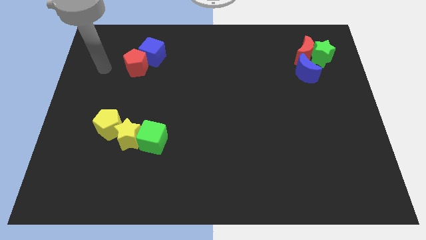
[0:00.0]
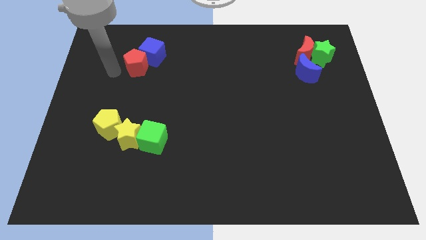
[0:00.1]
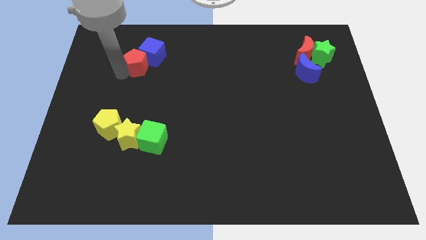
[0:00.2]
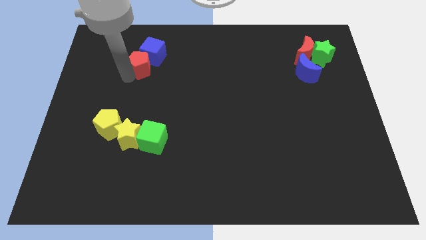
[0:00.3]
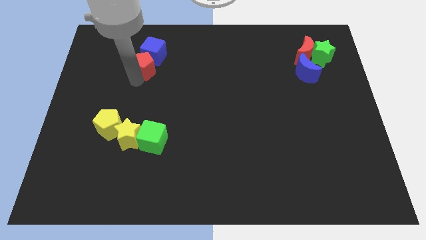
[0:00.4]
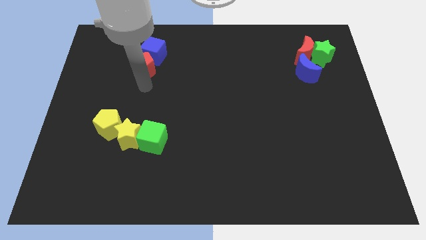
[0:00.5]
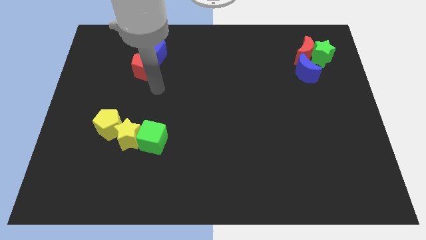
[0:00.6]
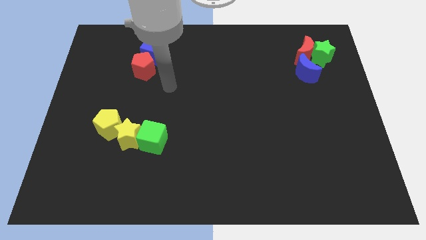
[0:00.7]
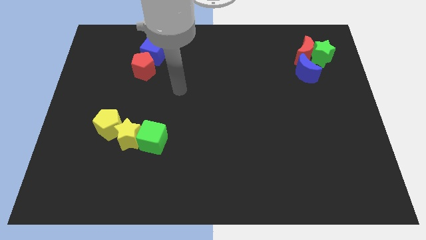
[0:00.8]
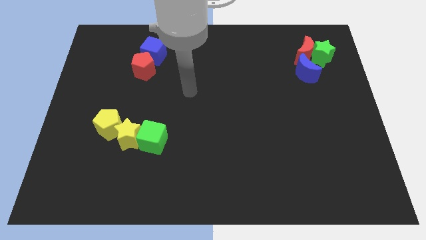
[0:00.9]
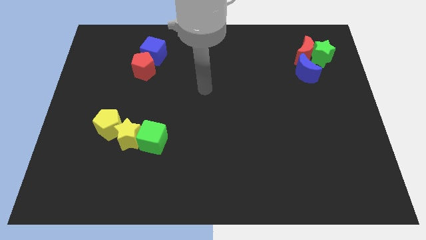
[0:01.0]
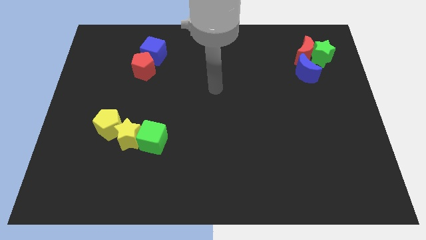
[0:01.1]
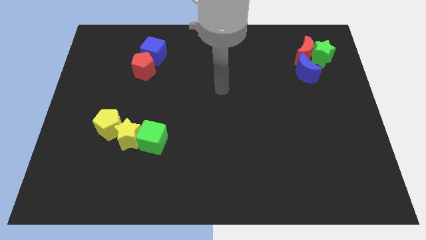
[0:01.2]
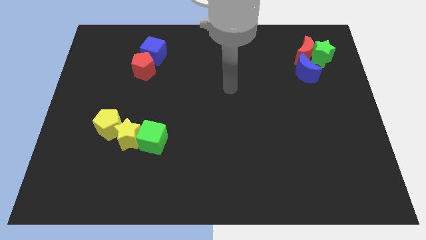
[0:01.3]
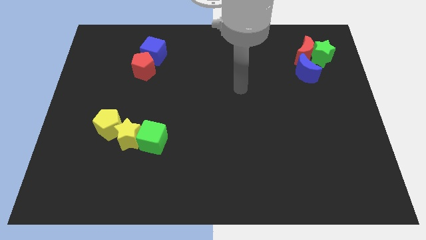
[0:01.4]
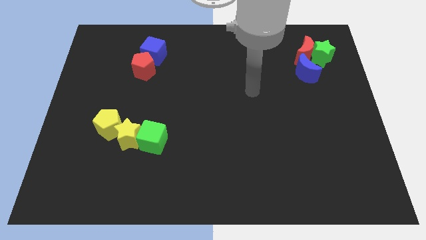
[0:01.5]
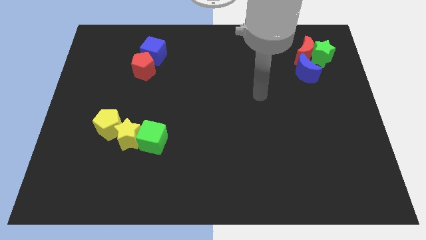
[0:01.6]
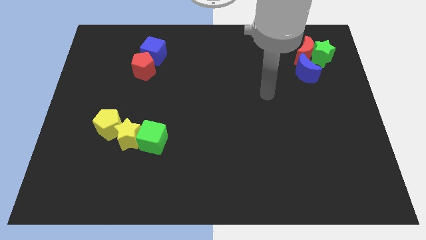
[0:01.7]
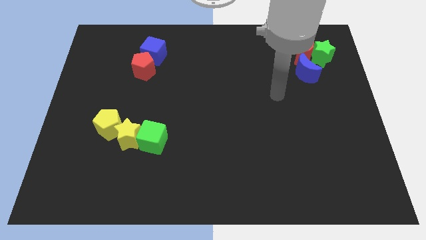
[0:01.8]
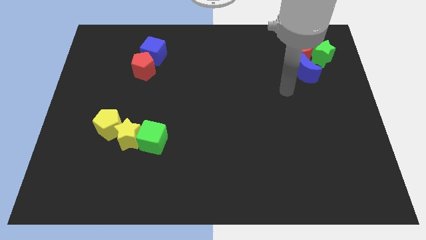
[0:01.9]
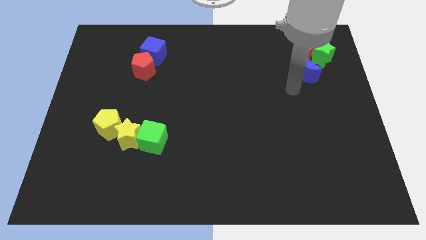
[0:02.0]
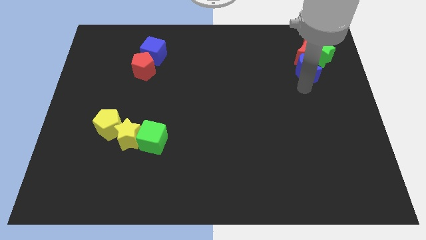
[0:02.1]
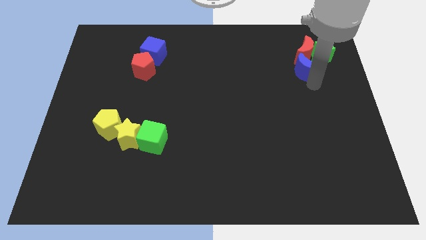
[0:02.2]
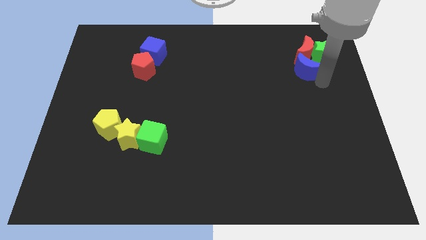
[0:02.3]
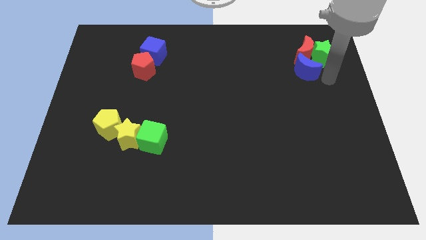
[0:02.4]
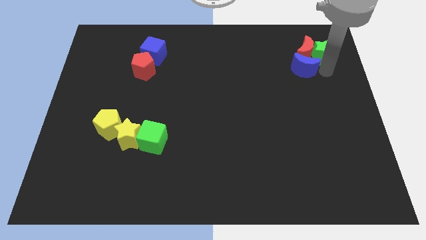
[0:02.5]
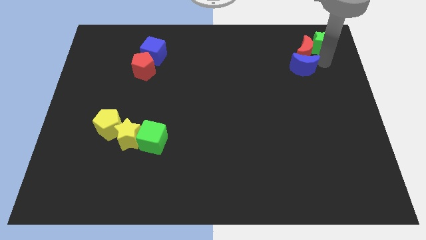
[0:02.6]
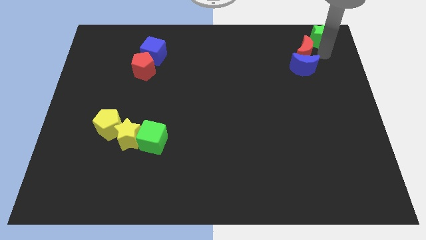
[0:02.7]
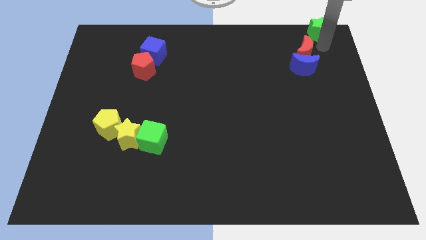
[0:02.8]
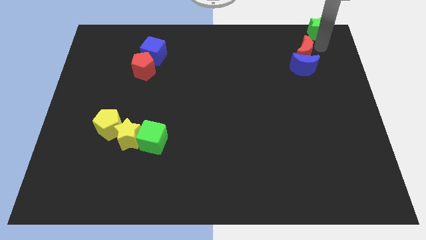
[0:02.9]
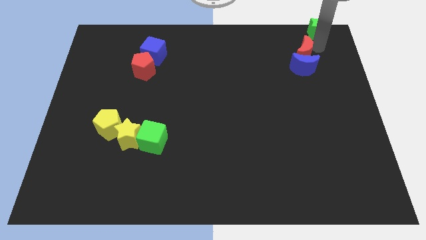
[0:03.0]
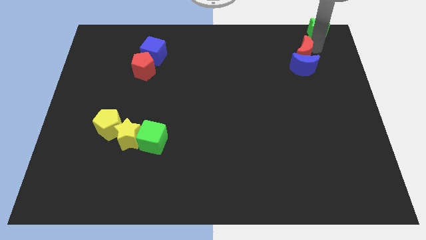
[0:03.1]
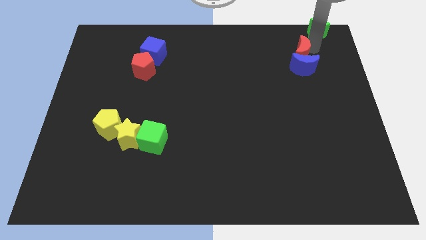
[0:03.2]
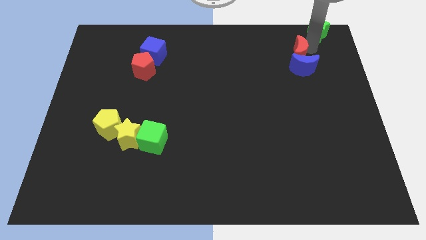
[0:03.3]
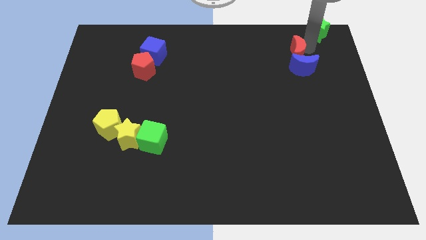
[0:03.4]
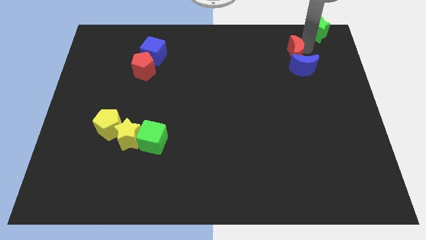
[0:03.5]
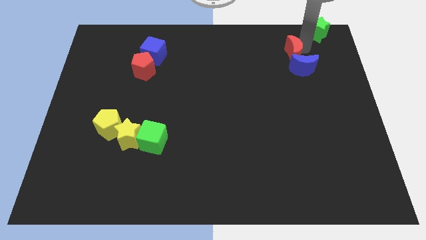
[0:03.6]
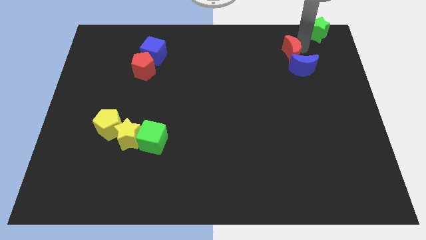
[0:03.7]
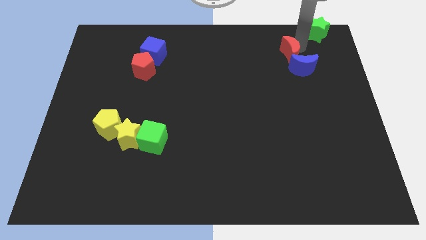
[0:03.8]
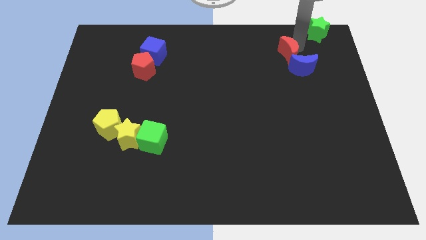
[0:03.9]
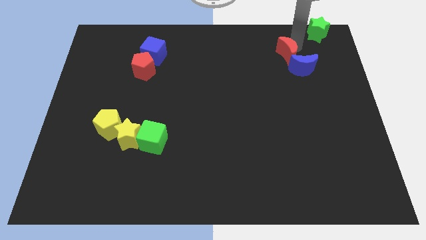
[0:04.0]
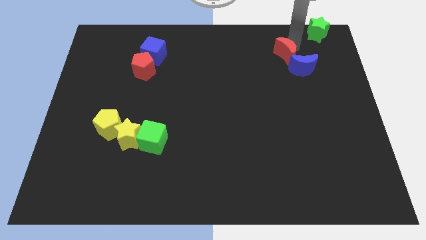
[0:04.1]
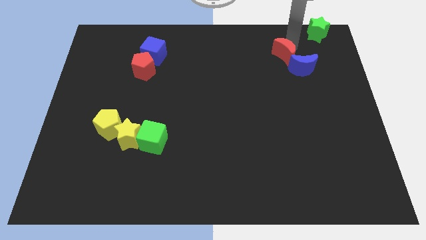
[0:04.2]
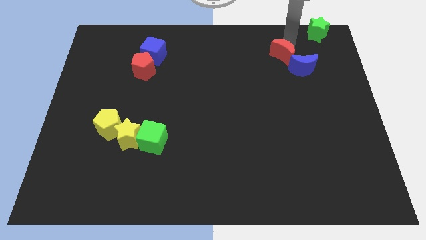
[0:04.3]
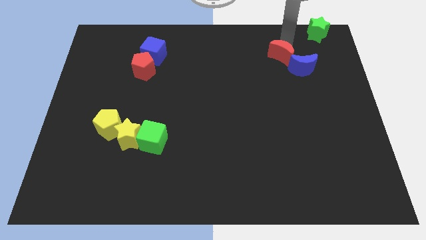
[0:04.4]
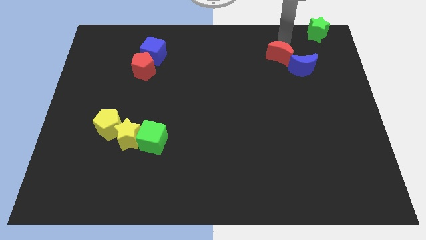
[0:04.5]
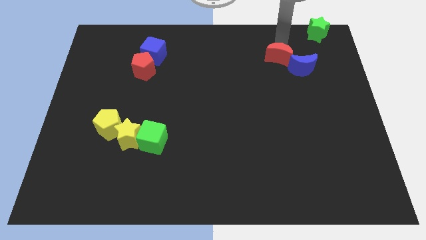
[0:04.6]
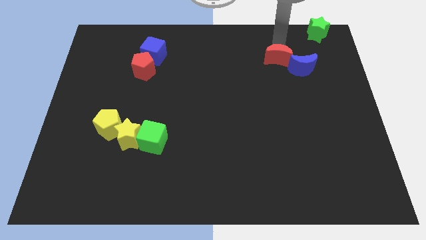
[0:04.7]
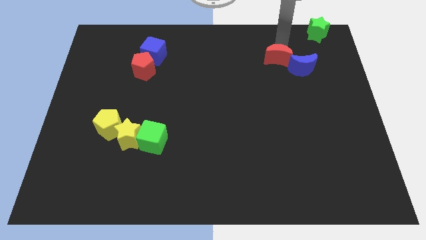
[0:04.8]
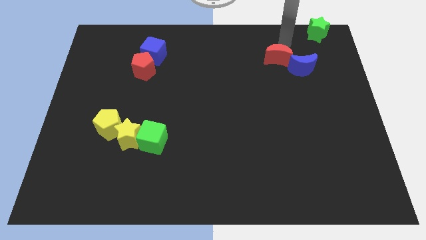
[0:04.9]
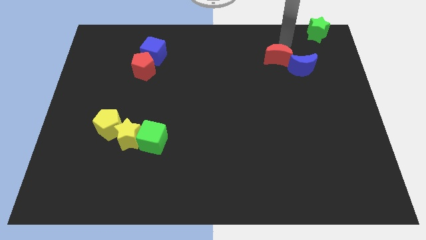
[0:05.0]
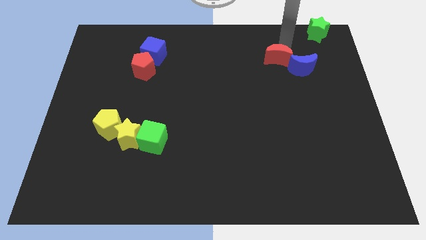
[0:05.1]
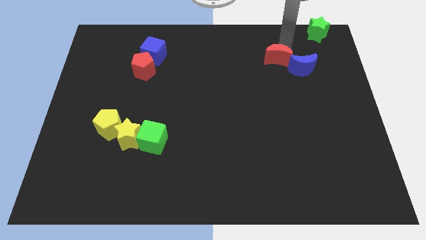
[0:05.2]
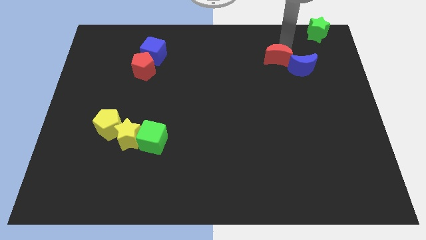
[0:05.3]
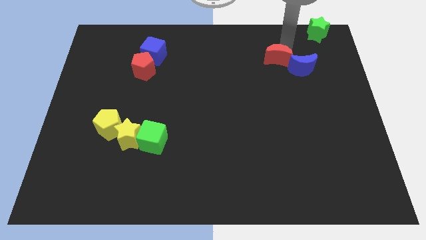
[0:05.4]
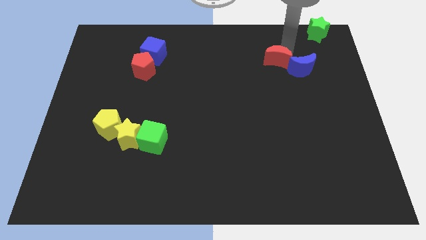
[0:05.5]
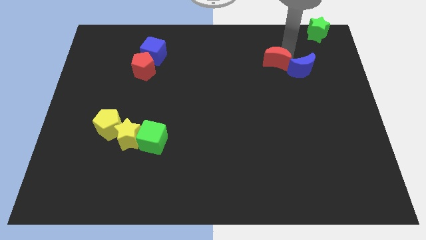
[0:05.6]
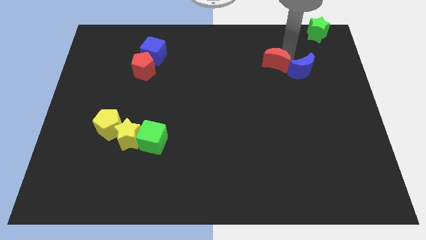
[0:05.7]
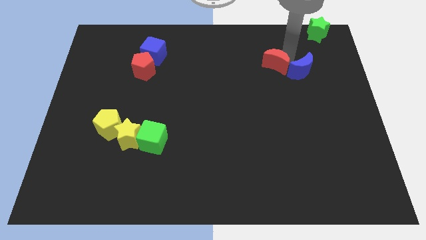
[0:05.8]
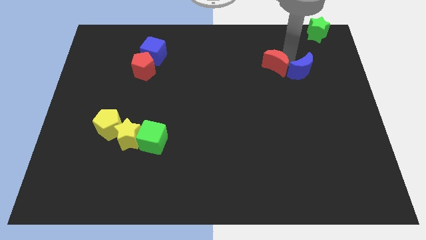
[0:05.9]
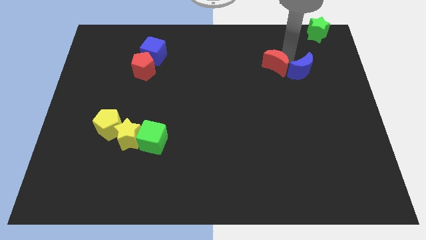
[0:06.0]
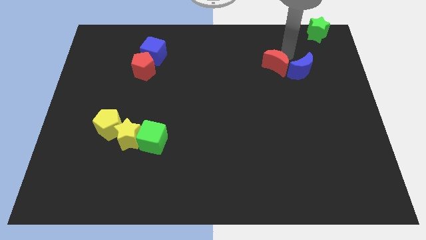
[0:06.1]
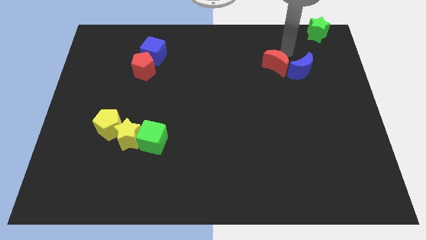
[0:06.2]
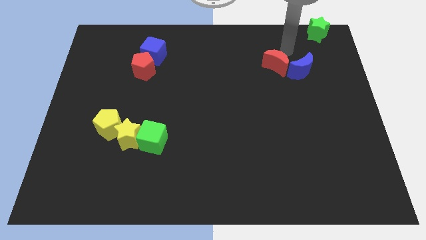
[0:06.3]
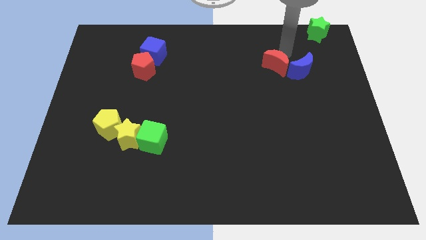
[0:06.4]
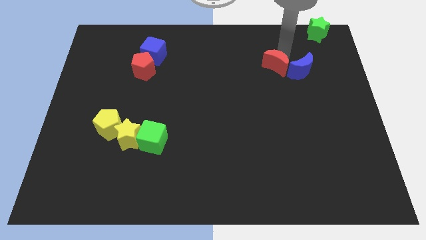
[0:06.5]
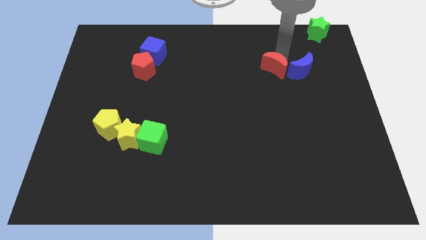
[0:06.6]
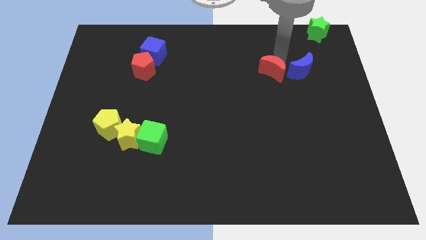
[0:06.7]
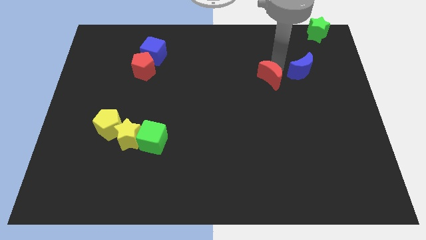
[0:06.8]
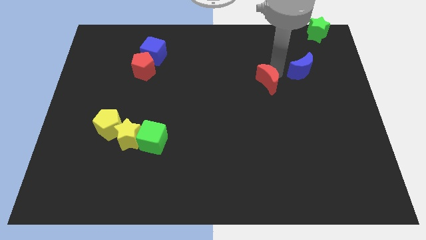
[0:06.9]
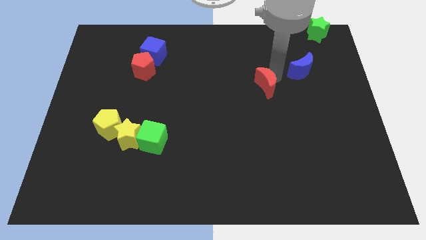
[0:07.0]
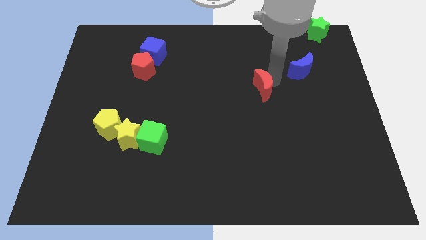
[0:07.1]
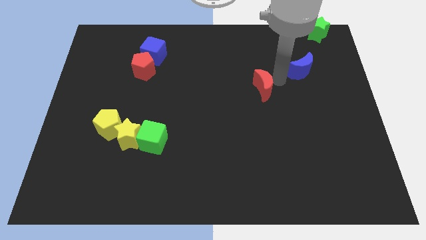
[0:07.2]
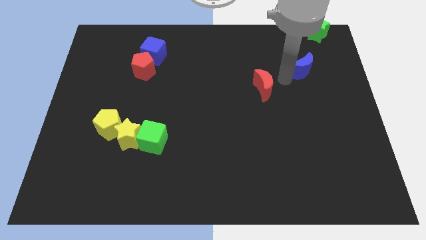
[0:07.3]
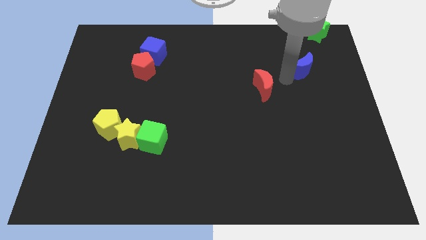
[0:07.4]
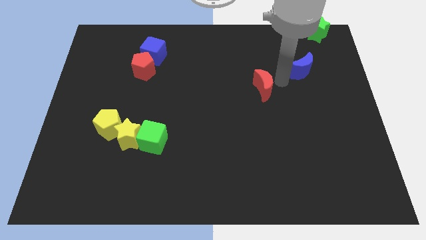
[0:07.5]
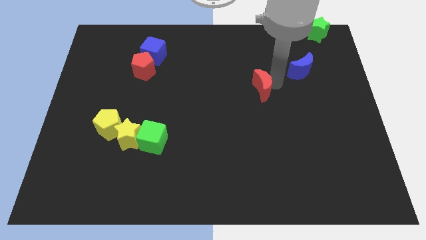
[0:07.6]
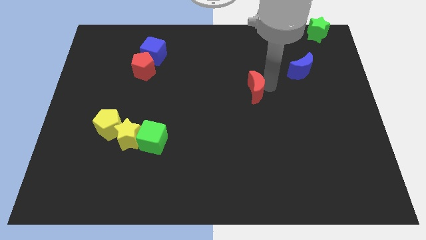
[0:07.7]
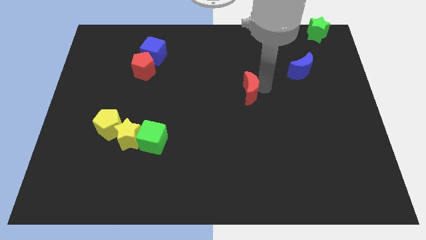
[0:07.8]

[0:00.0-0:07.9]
slide the red moon downwards and to the left diagonally

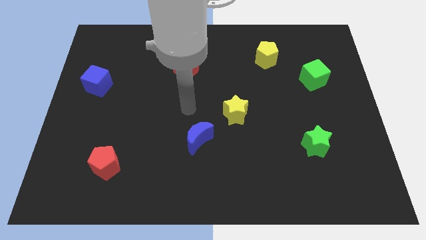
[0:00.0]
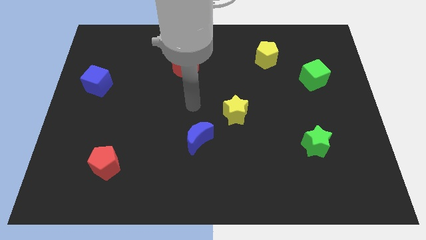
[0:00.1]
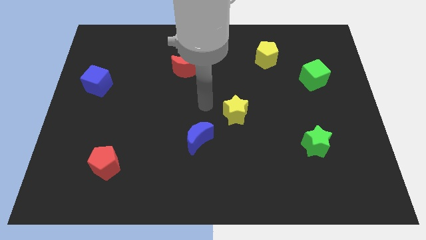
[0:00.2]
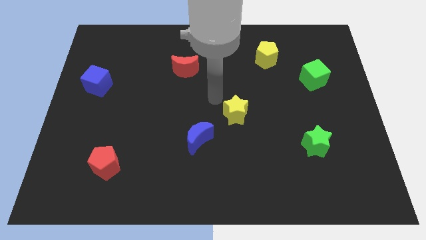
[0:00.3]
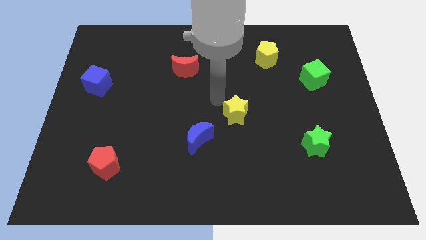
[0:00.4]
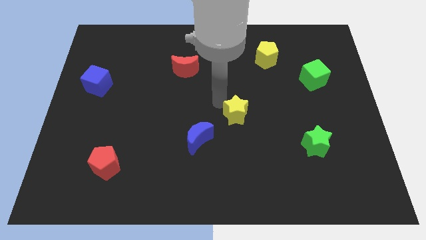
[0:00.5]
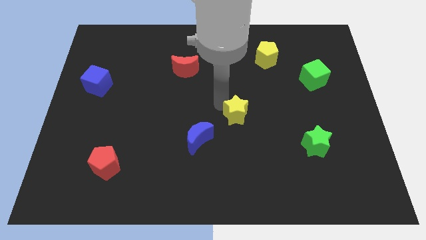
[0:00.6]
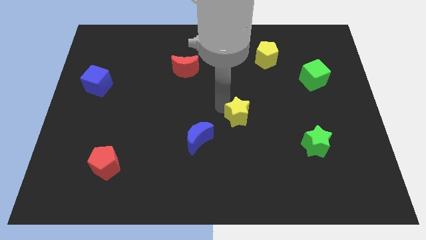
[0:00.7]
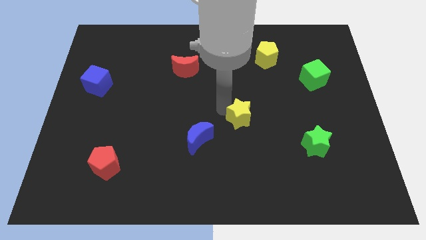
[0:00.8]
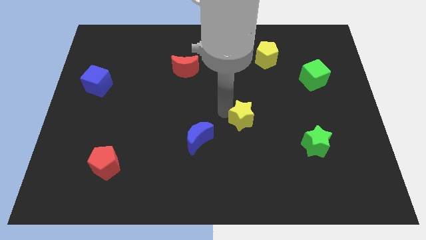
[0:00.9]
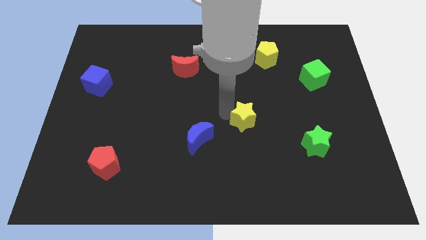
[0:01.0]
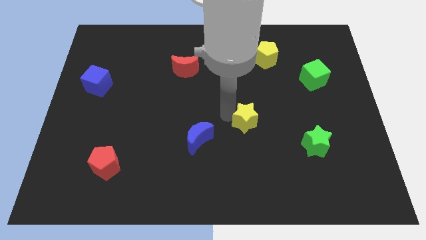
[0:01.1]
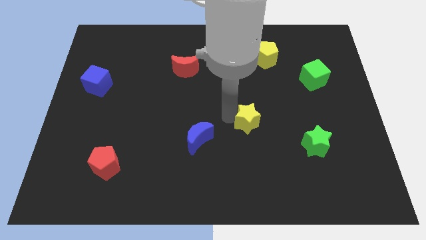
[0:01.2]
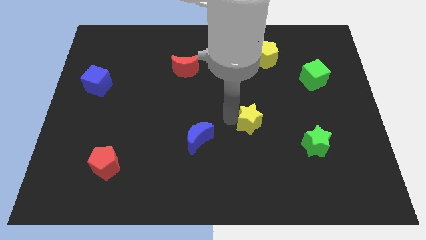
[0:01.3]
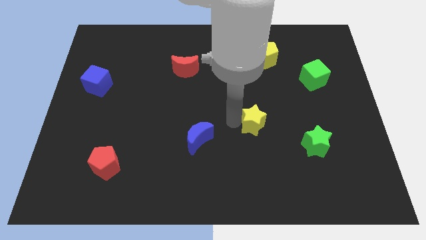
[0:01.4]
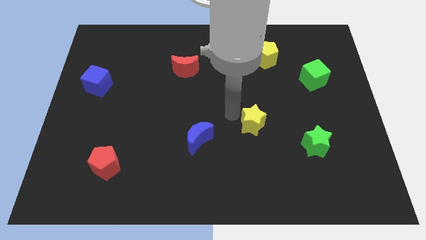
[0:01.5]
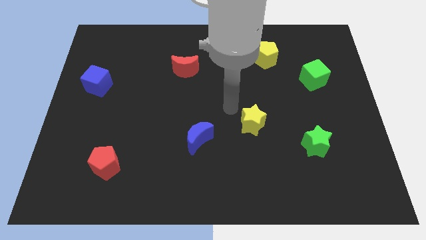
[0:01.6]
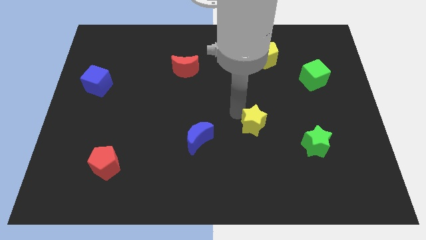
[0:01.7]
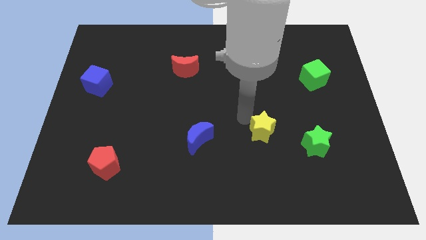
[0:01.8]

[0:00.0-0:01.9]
slide the yellow star diagonally downwards and to the right slightly
